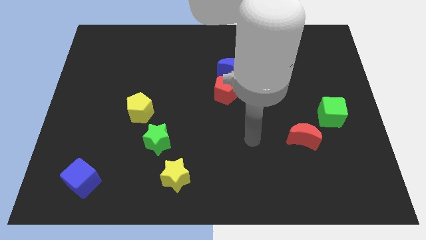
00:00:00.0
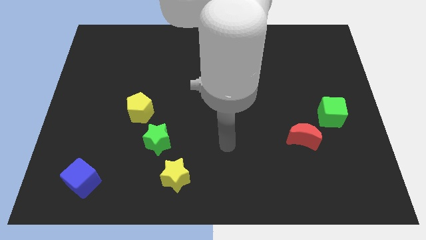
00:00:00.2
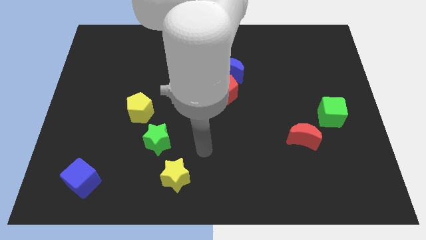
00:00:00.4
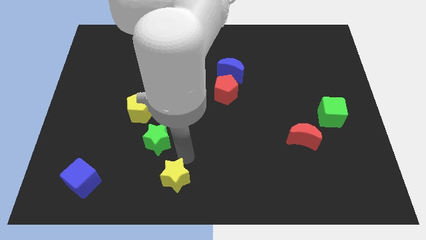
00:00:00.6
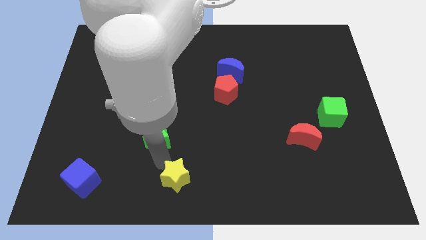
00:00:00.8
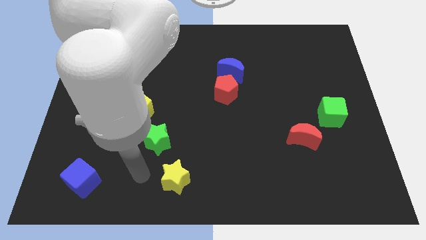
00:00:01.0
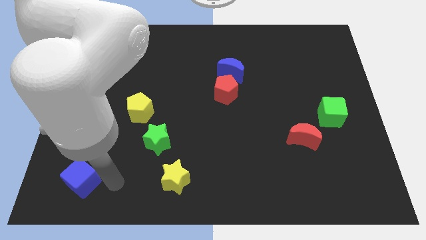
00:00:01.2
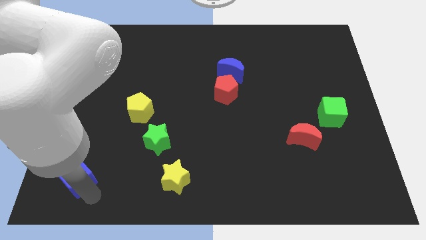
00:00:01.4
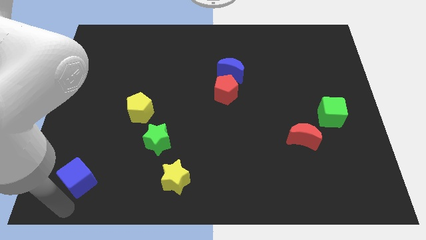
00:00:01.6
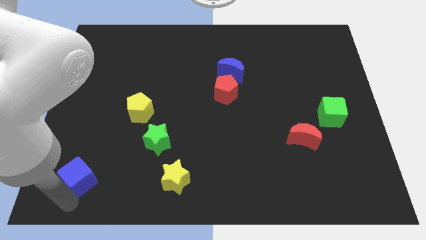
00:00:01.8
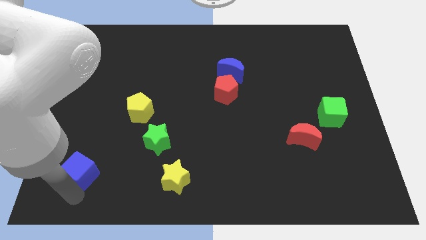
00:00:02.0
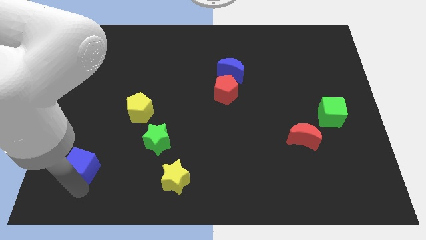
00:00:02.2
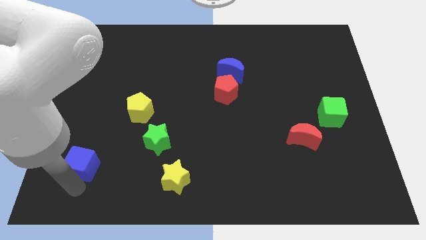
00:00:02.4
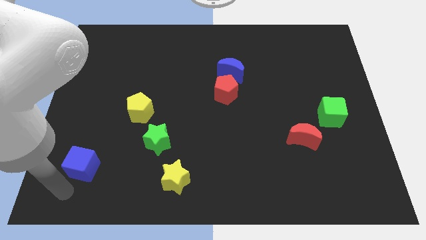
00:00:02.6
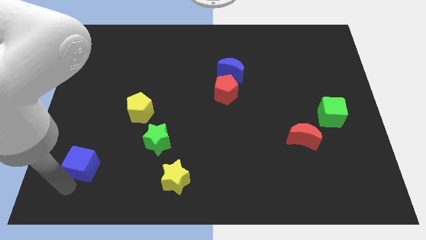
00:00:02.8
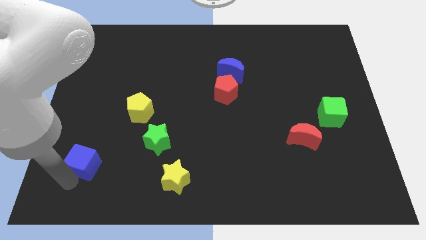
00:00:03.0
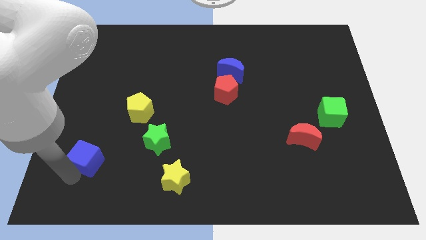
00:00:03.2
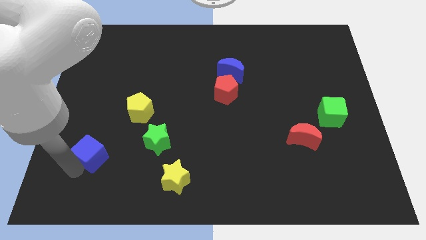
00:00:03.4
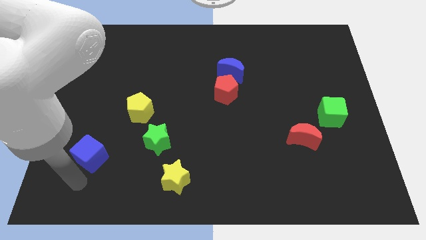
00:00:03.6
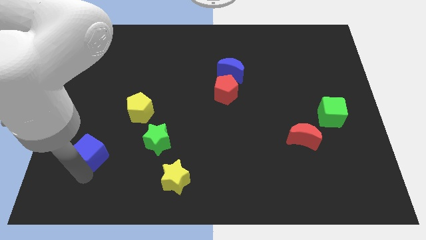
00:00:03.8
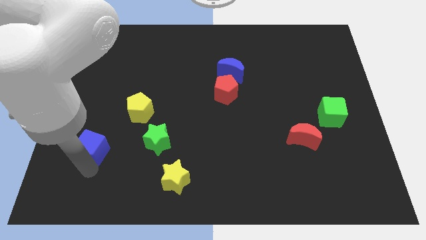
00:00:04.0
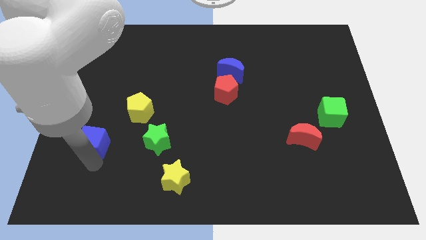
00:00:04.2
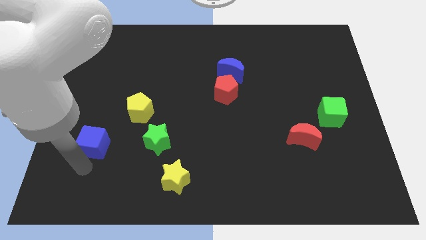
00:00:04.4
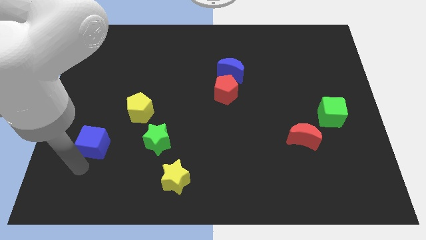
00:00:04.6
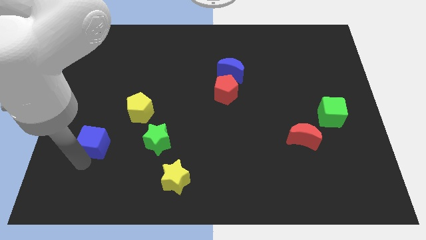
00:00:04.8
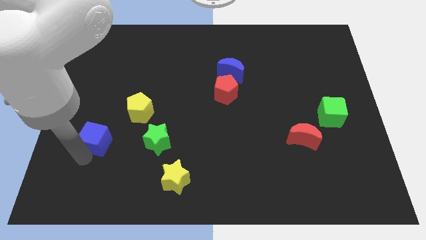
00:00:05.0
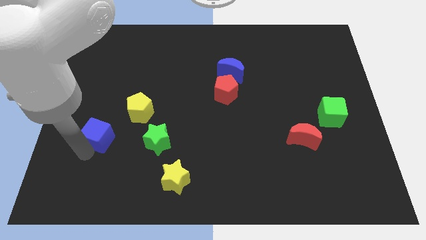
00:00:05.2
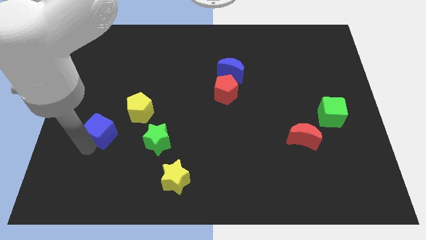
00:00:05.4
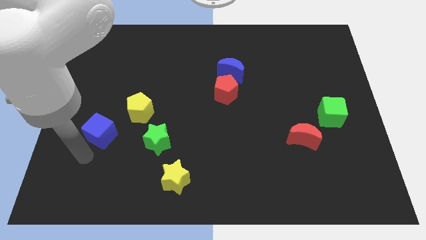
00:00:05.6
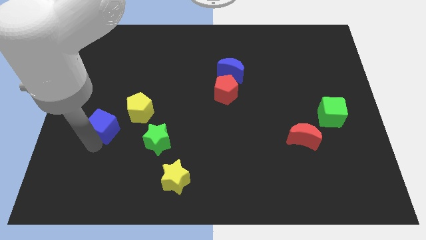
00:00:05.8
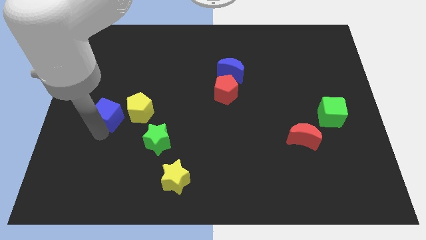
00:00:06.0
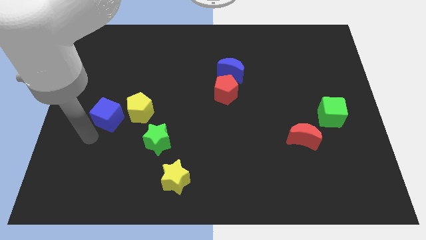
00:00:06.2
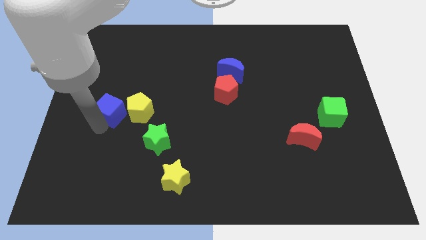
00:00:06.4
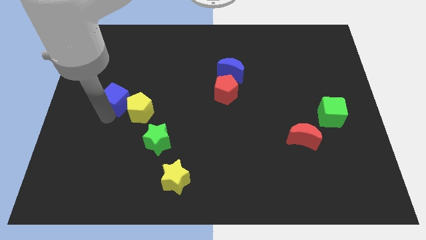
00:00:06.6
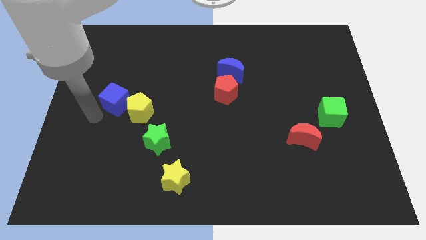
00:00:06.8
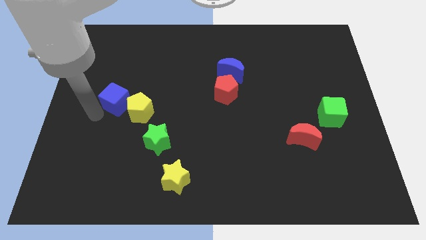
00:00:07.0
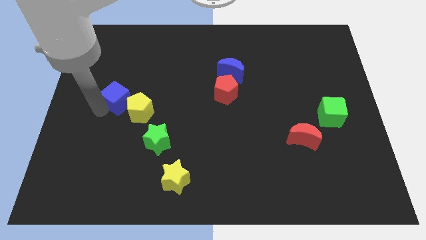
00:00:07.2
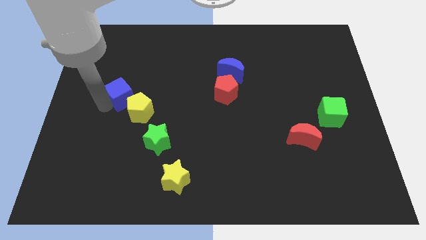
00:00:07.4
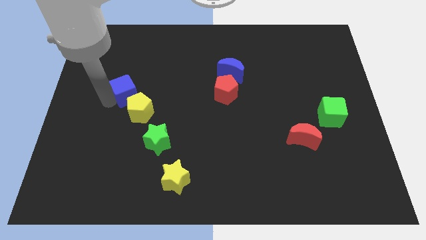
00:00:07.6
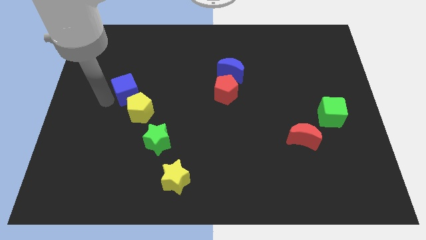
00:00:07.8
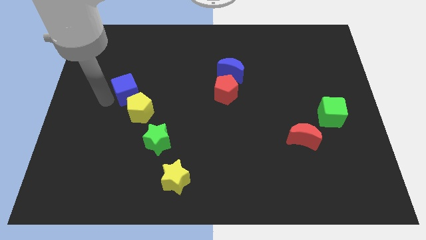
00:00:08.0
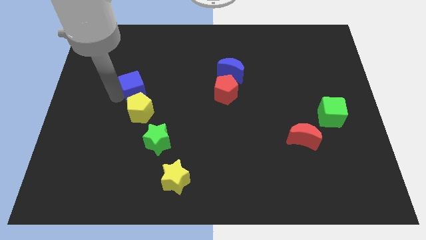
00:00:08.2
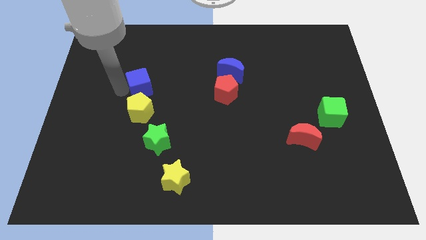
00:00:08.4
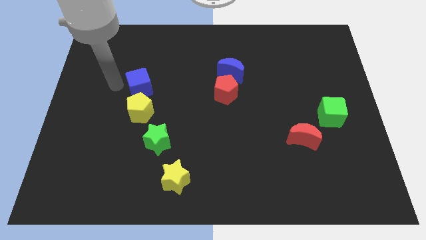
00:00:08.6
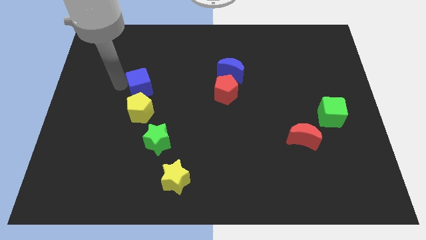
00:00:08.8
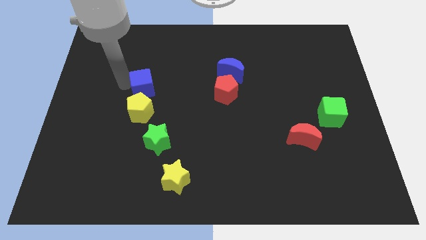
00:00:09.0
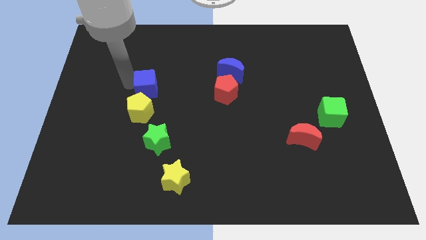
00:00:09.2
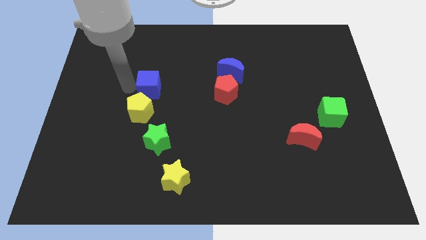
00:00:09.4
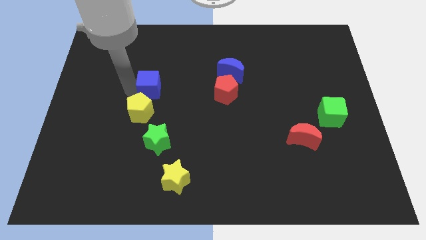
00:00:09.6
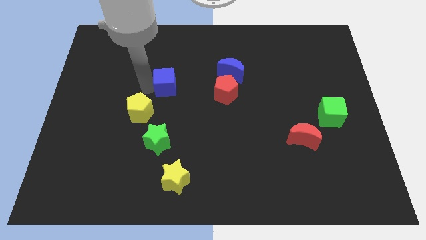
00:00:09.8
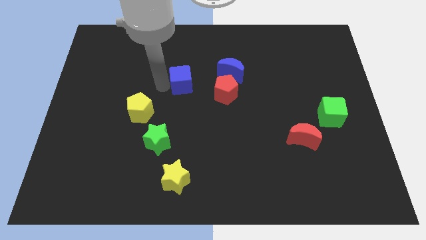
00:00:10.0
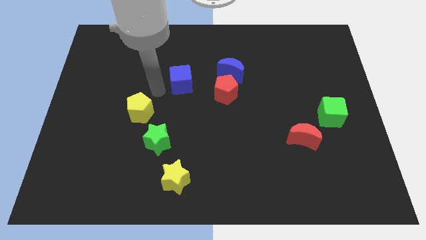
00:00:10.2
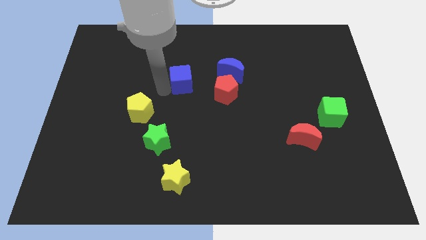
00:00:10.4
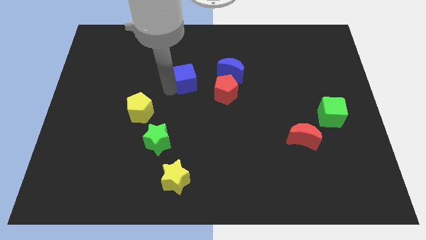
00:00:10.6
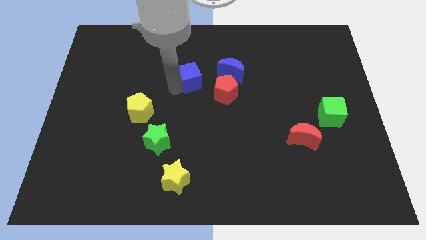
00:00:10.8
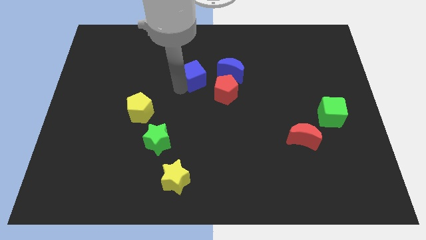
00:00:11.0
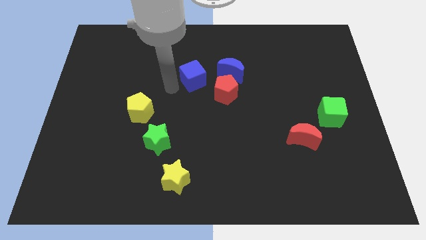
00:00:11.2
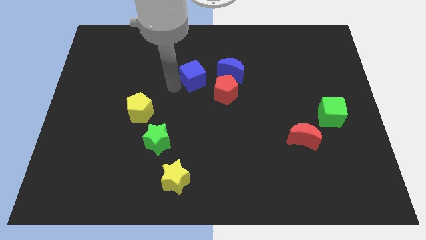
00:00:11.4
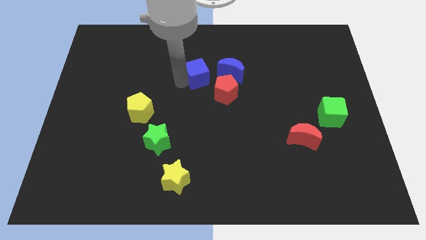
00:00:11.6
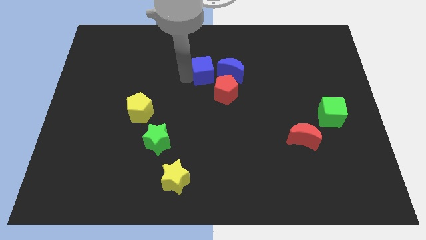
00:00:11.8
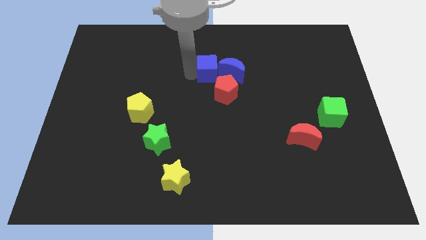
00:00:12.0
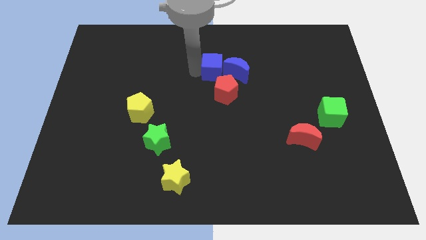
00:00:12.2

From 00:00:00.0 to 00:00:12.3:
slide the blue cube towards the blue moon
